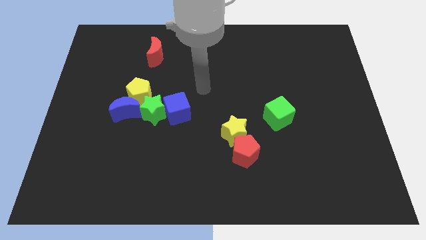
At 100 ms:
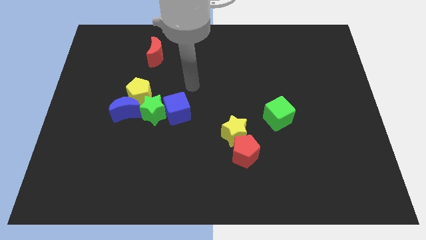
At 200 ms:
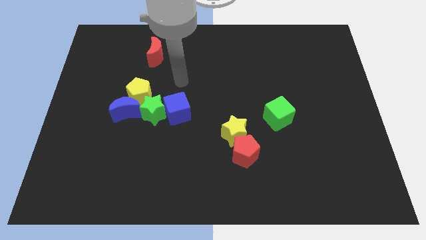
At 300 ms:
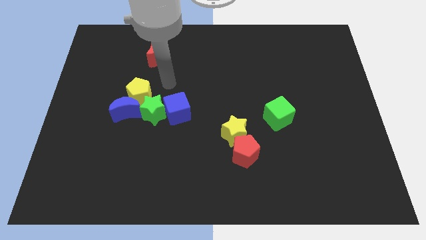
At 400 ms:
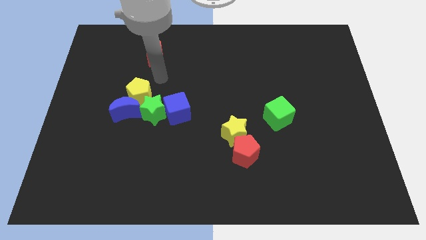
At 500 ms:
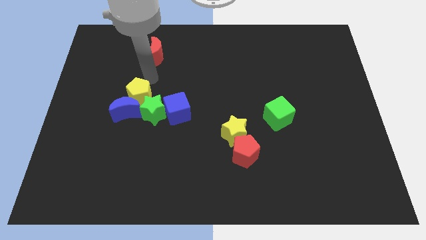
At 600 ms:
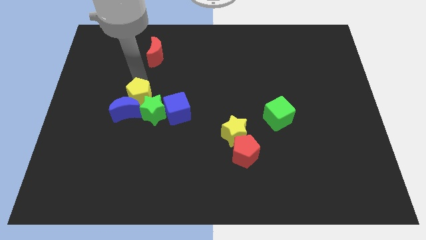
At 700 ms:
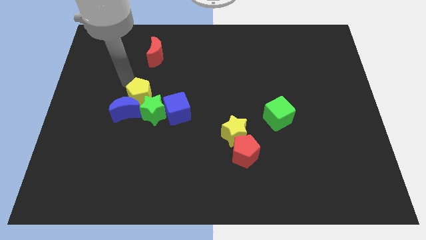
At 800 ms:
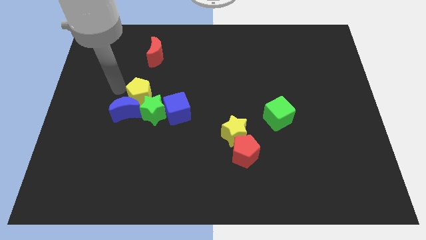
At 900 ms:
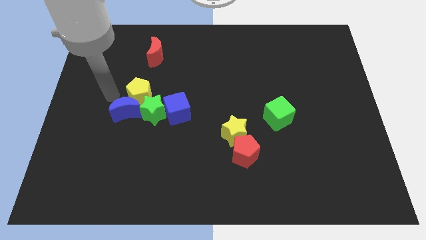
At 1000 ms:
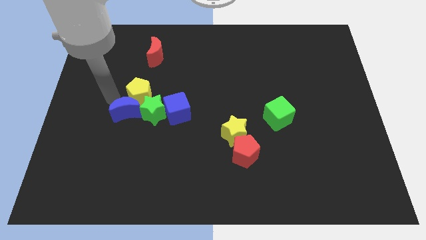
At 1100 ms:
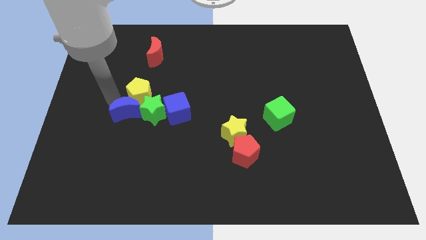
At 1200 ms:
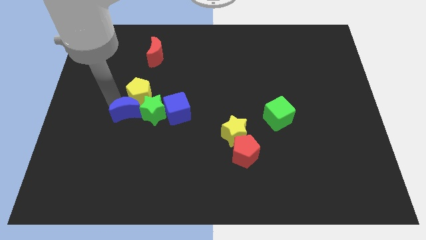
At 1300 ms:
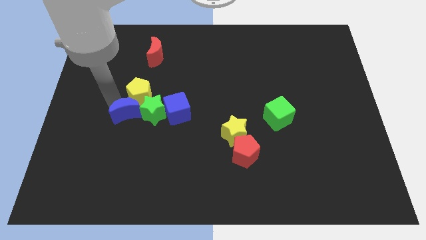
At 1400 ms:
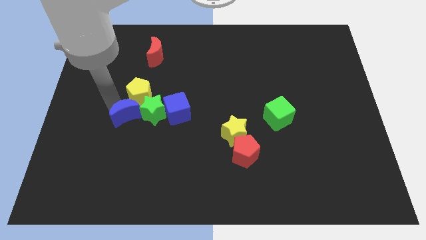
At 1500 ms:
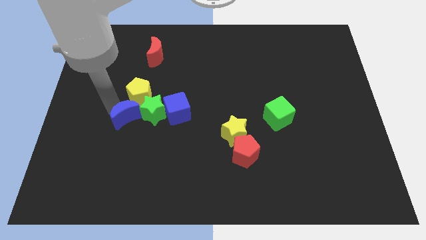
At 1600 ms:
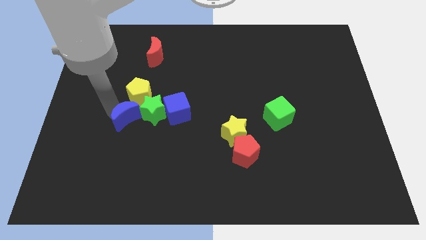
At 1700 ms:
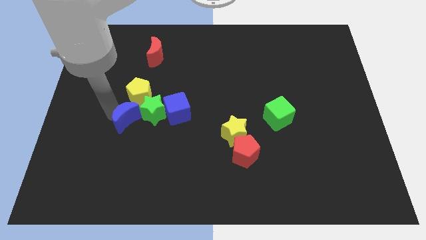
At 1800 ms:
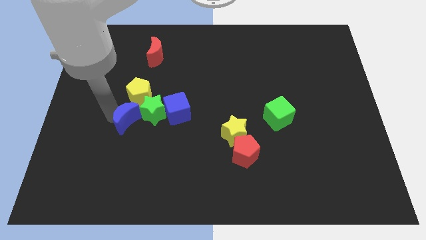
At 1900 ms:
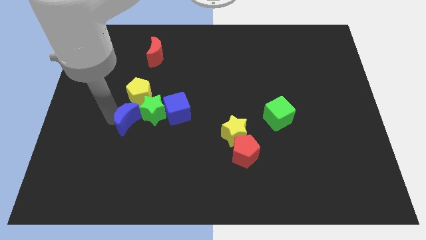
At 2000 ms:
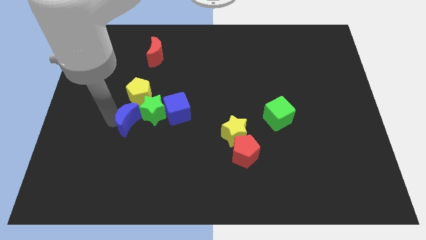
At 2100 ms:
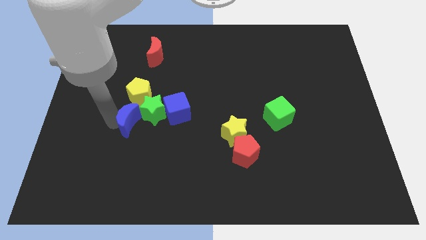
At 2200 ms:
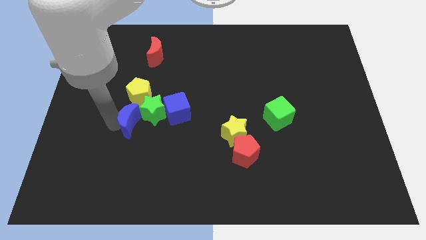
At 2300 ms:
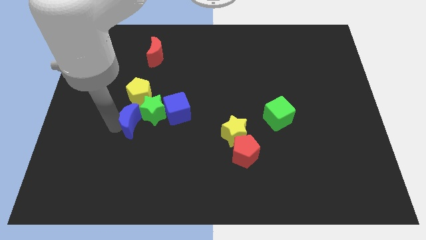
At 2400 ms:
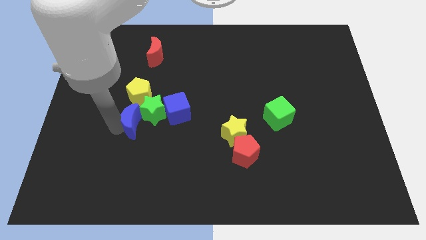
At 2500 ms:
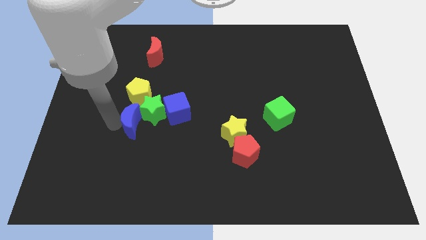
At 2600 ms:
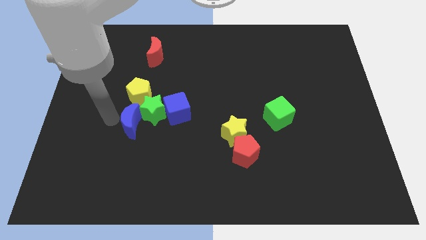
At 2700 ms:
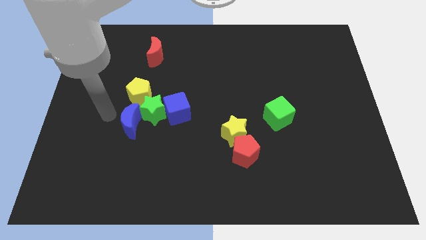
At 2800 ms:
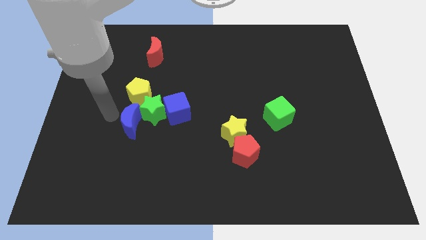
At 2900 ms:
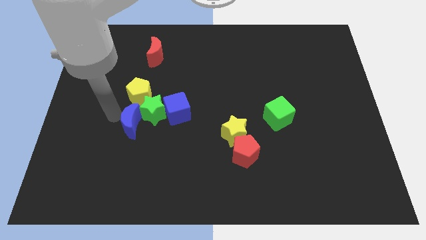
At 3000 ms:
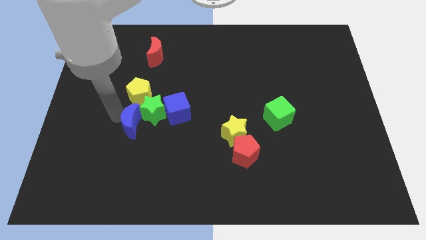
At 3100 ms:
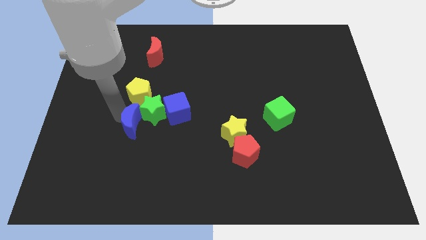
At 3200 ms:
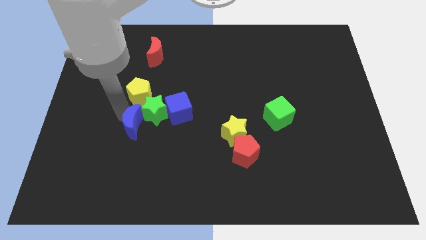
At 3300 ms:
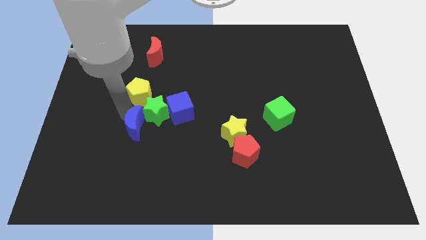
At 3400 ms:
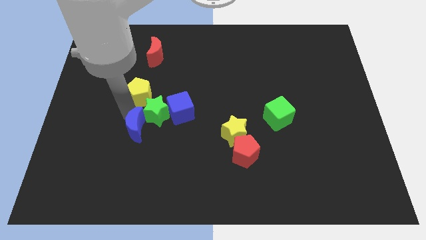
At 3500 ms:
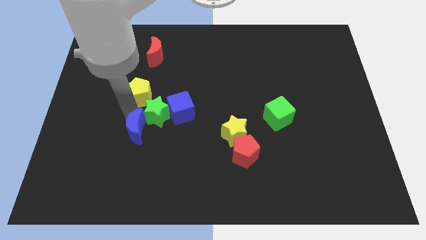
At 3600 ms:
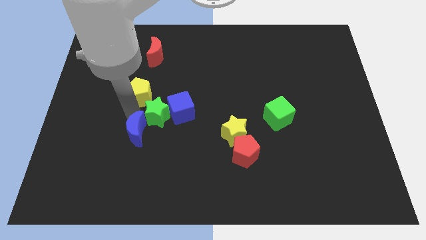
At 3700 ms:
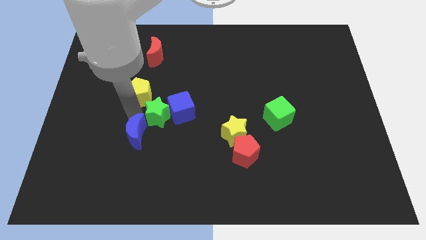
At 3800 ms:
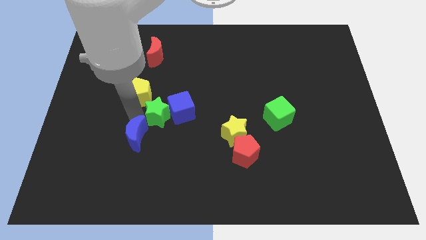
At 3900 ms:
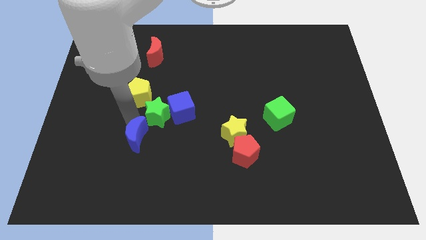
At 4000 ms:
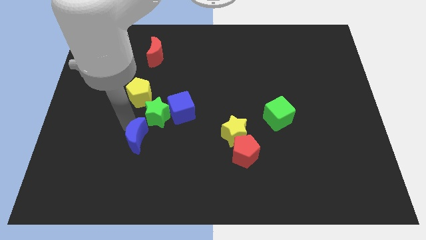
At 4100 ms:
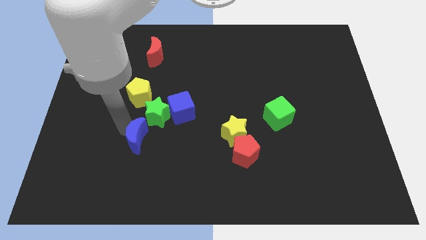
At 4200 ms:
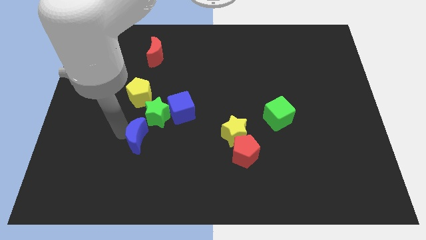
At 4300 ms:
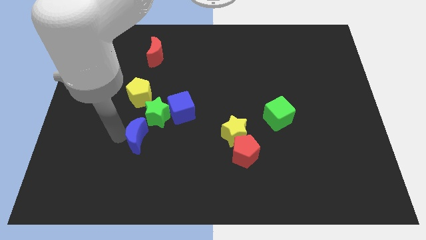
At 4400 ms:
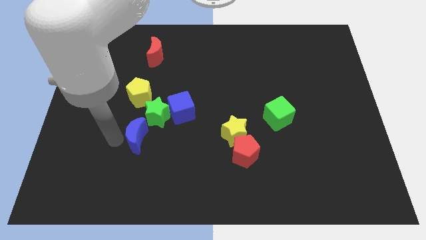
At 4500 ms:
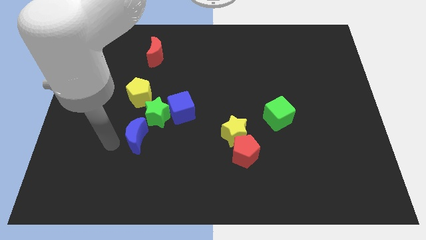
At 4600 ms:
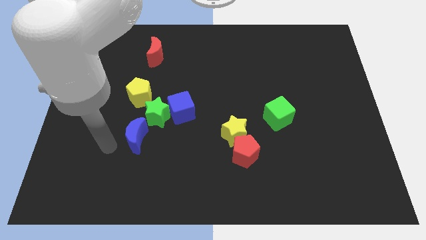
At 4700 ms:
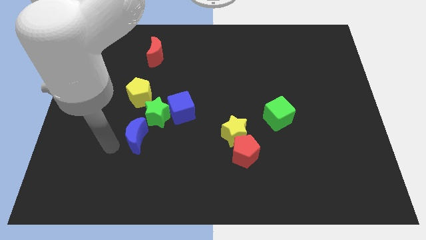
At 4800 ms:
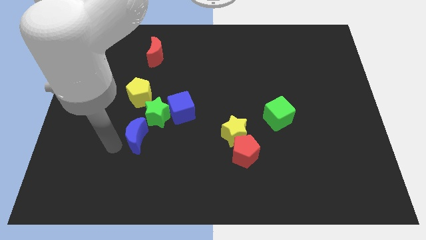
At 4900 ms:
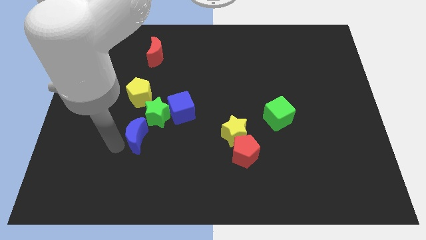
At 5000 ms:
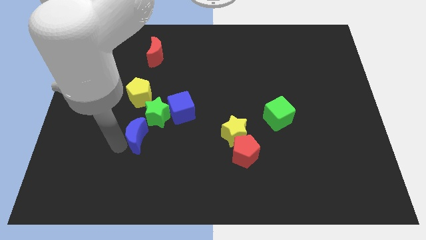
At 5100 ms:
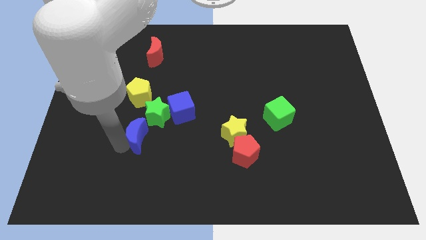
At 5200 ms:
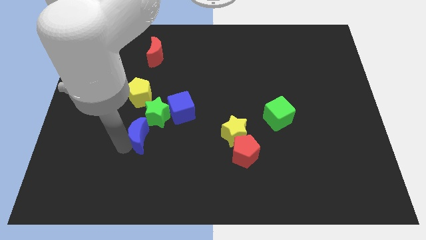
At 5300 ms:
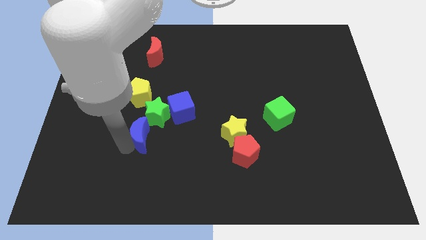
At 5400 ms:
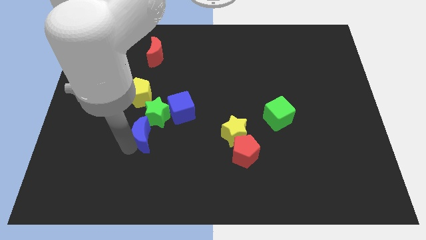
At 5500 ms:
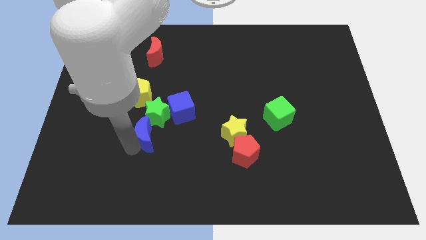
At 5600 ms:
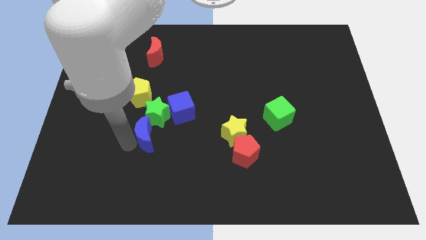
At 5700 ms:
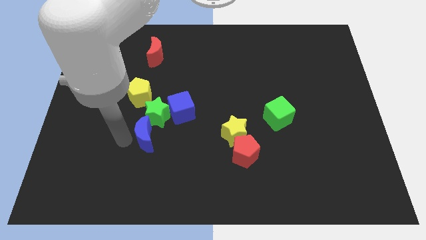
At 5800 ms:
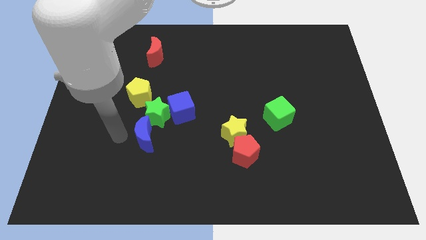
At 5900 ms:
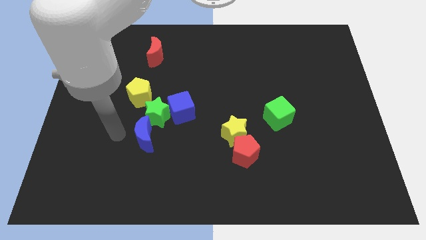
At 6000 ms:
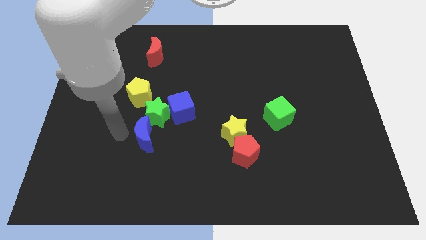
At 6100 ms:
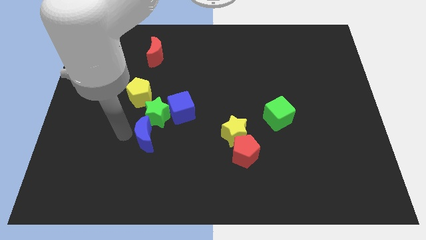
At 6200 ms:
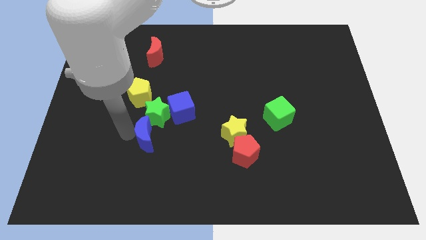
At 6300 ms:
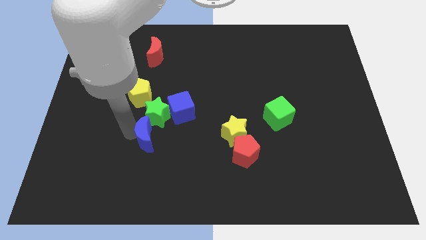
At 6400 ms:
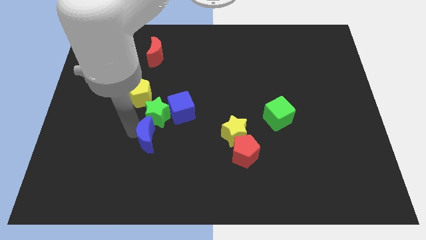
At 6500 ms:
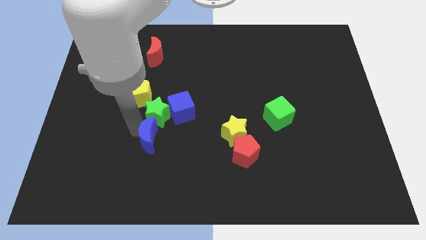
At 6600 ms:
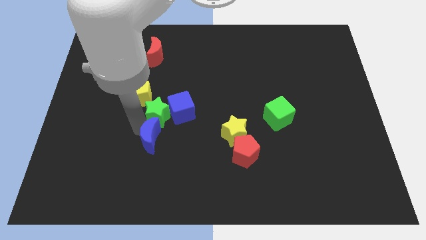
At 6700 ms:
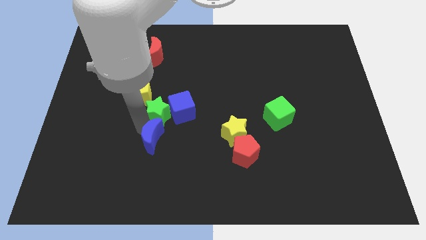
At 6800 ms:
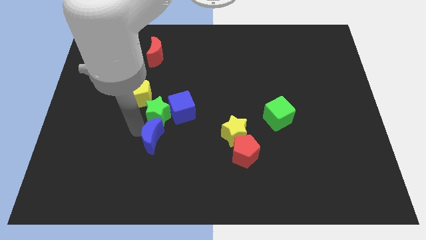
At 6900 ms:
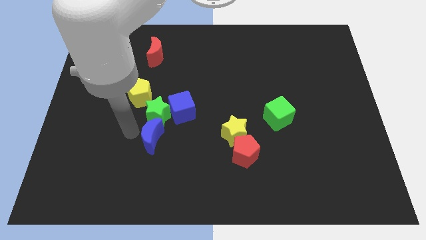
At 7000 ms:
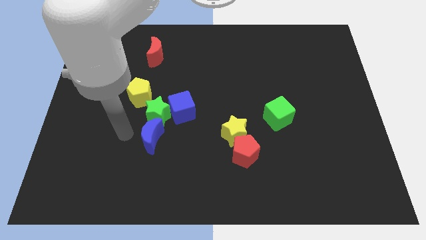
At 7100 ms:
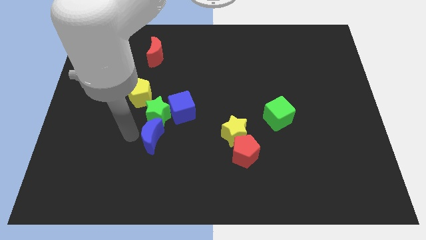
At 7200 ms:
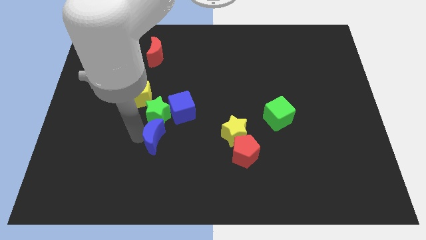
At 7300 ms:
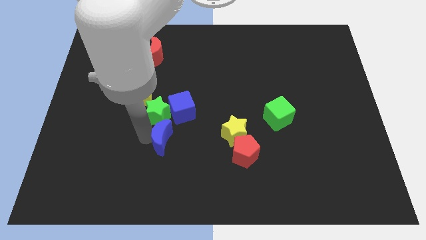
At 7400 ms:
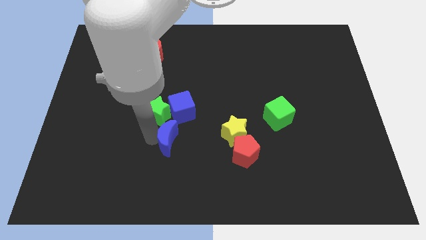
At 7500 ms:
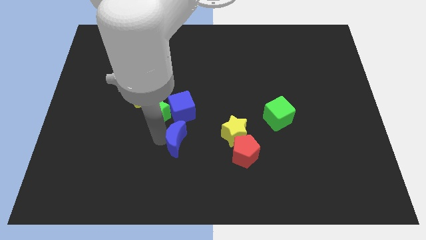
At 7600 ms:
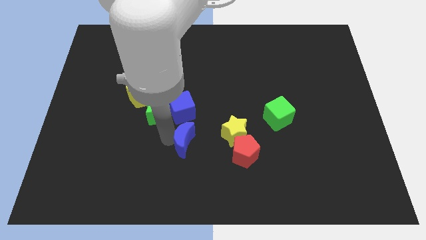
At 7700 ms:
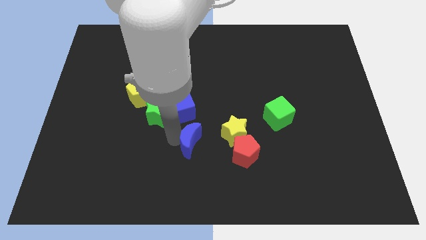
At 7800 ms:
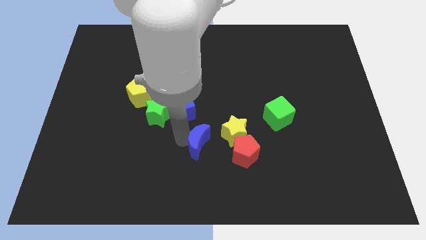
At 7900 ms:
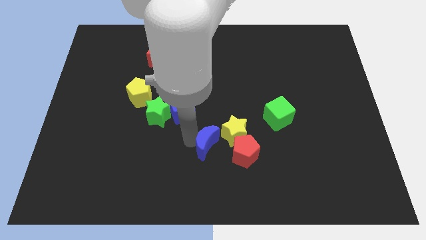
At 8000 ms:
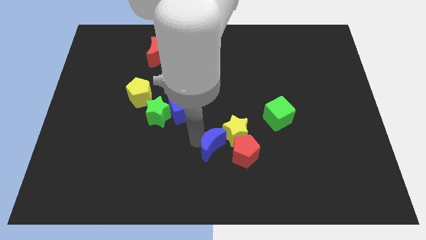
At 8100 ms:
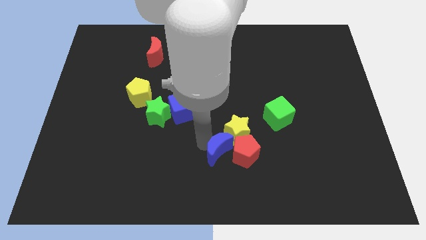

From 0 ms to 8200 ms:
slide the blue moon close to the red pentagon
